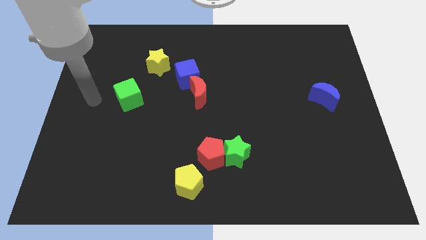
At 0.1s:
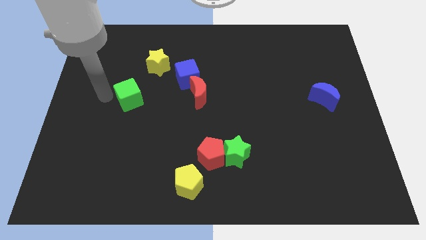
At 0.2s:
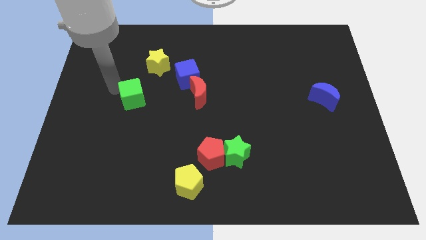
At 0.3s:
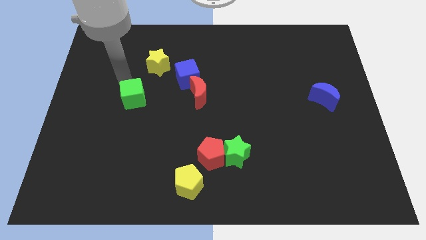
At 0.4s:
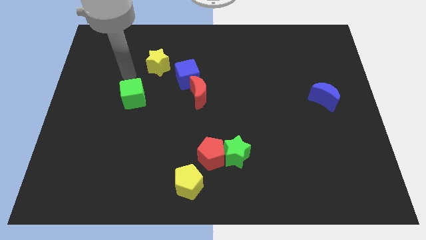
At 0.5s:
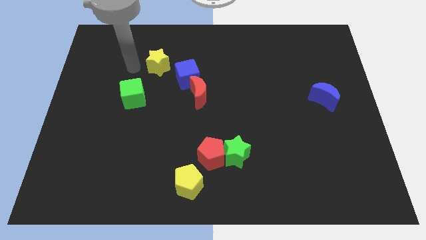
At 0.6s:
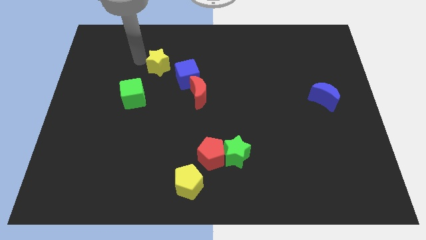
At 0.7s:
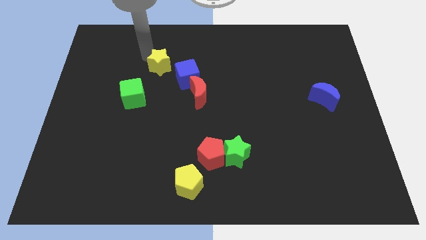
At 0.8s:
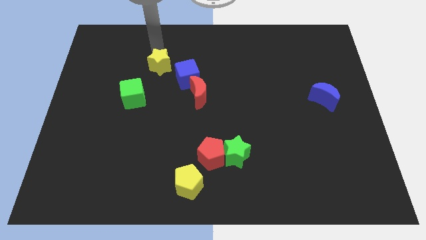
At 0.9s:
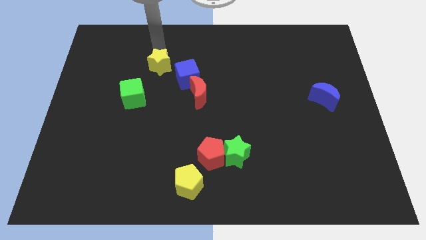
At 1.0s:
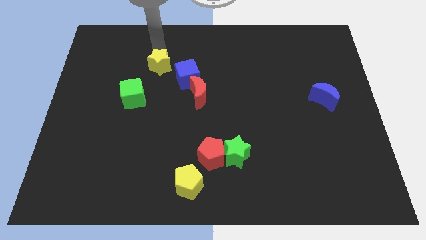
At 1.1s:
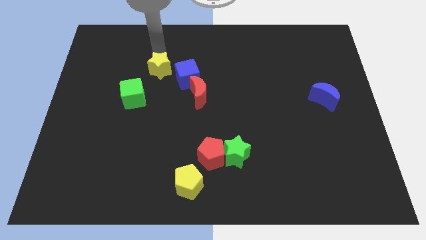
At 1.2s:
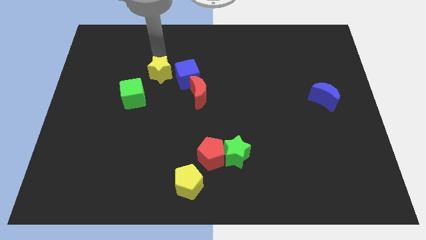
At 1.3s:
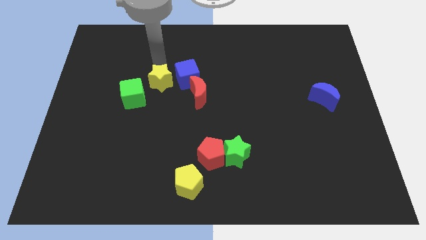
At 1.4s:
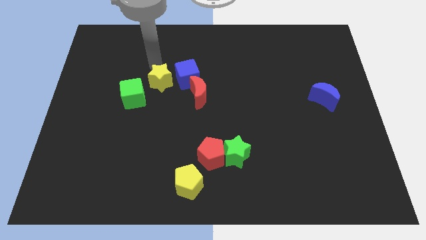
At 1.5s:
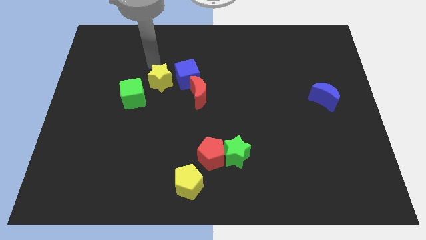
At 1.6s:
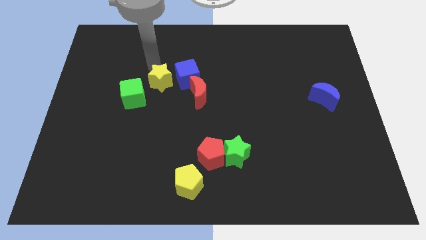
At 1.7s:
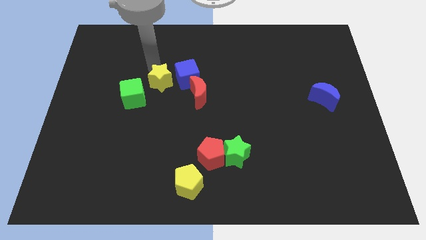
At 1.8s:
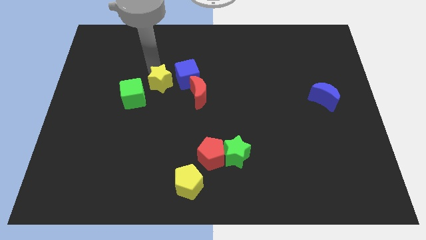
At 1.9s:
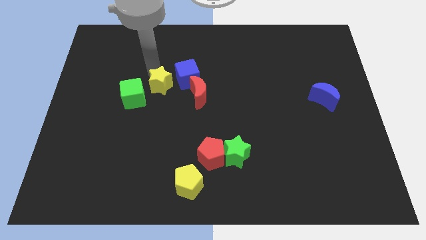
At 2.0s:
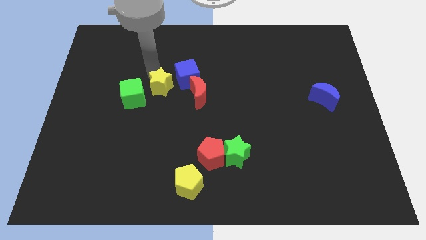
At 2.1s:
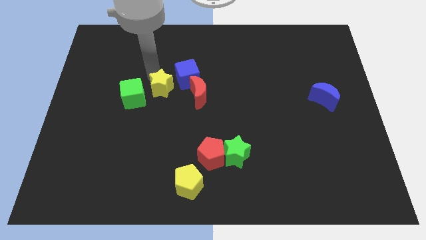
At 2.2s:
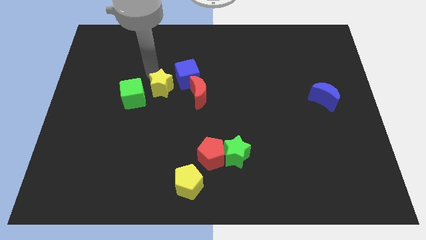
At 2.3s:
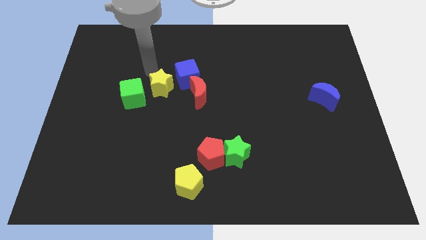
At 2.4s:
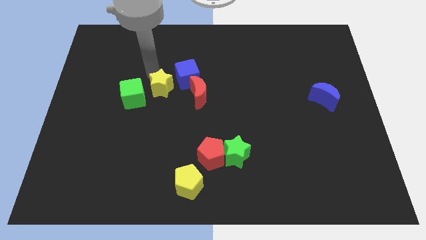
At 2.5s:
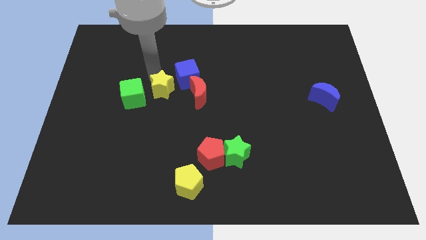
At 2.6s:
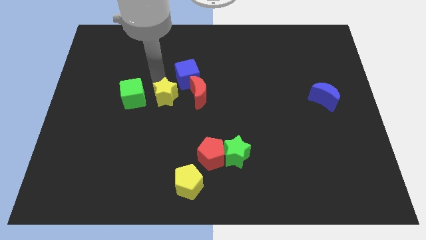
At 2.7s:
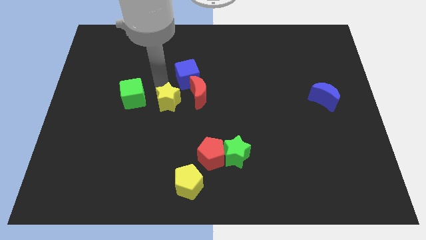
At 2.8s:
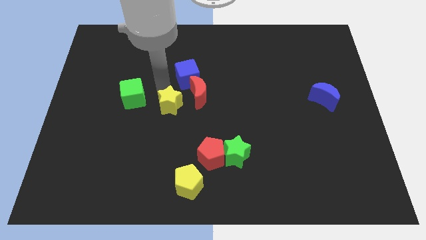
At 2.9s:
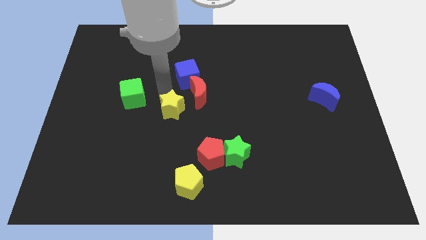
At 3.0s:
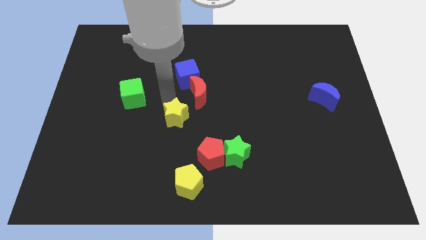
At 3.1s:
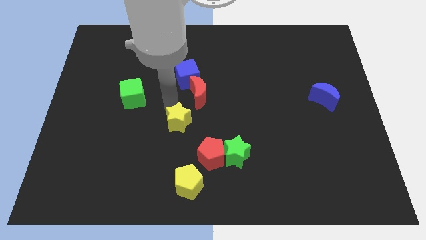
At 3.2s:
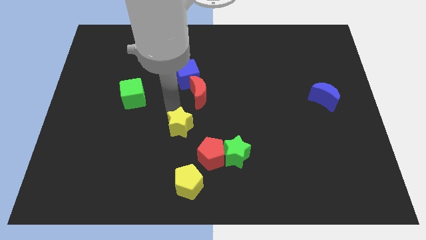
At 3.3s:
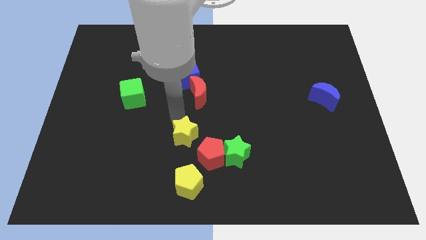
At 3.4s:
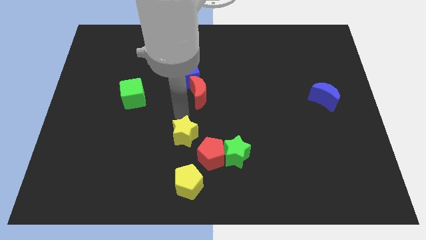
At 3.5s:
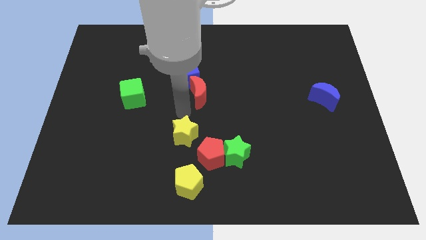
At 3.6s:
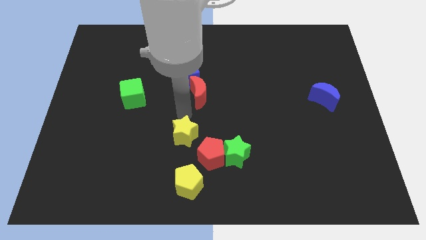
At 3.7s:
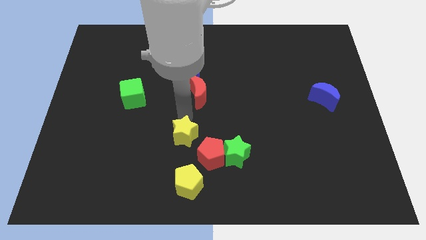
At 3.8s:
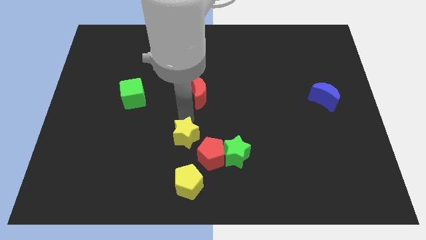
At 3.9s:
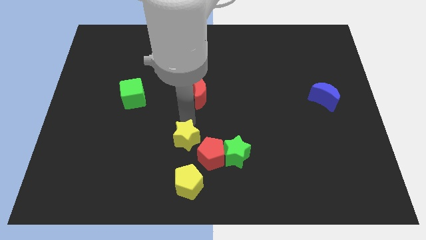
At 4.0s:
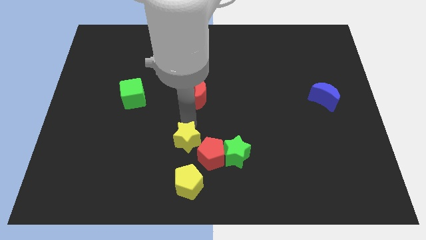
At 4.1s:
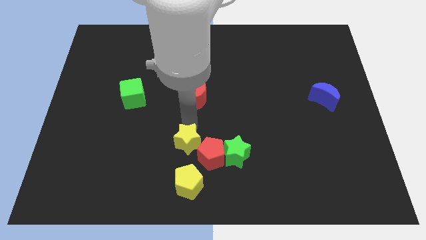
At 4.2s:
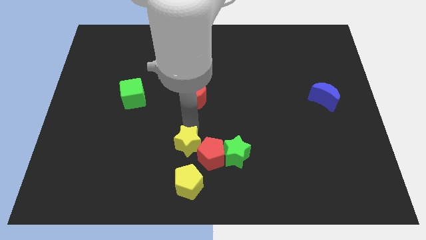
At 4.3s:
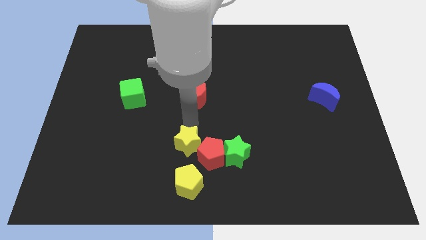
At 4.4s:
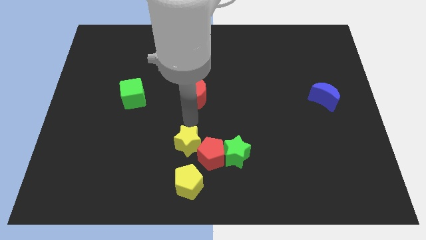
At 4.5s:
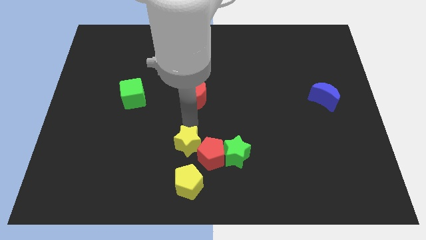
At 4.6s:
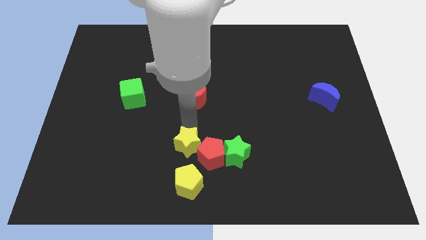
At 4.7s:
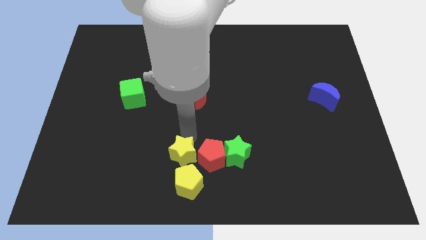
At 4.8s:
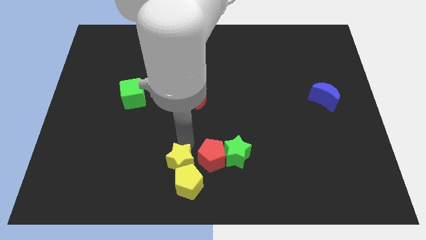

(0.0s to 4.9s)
slide the yellow star next to the yellow pentagon

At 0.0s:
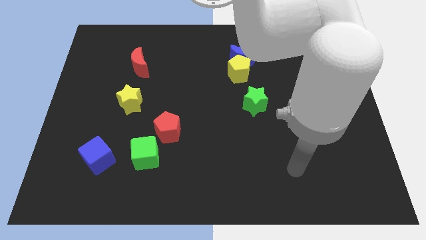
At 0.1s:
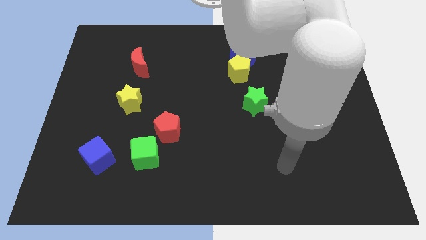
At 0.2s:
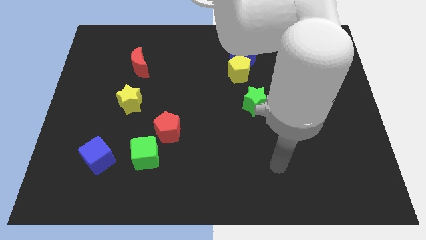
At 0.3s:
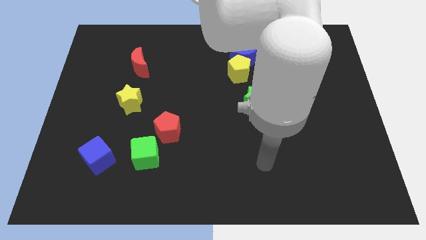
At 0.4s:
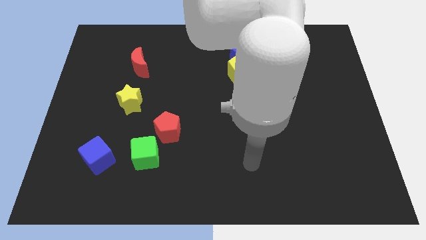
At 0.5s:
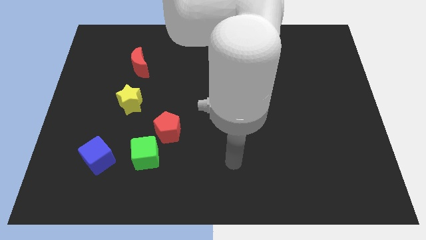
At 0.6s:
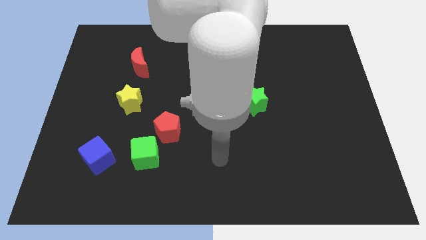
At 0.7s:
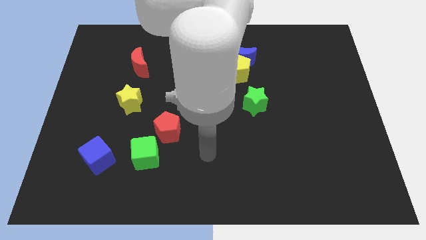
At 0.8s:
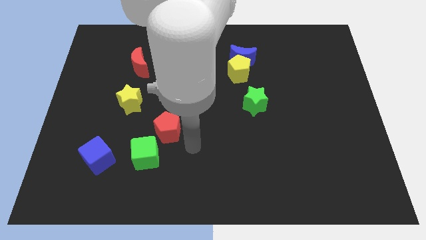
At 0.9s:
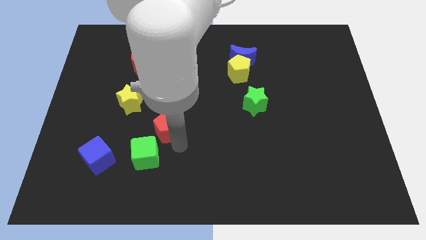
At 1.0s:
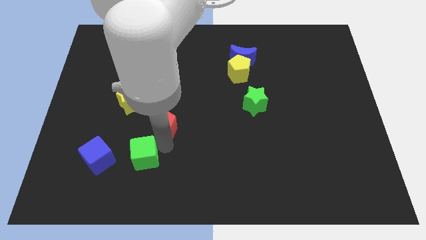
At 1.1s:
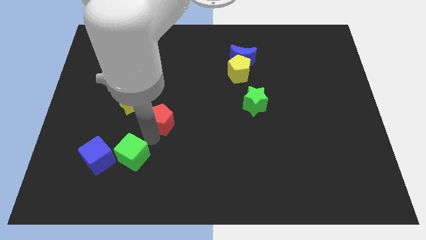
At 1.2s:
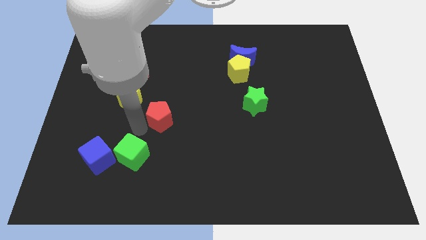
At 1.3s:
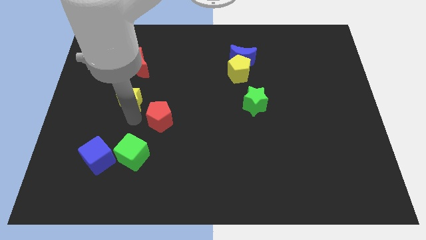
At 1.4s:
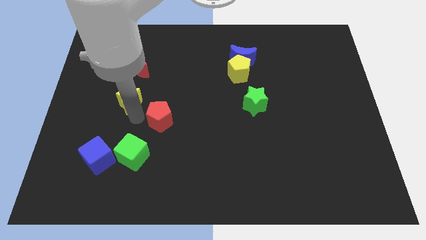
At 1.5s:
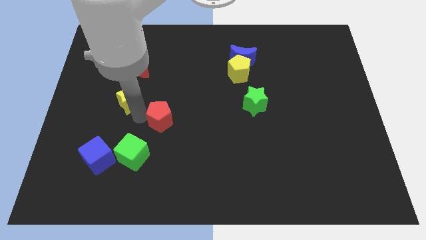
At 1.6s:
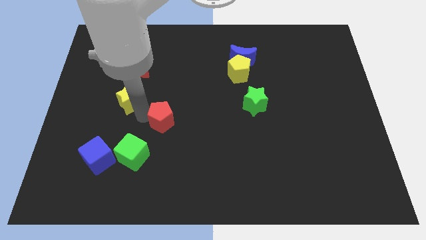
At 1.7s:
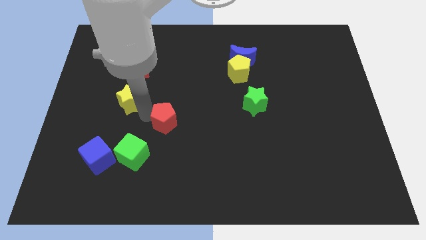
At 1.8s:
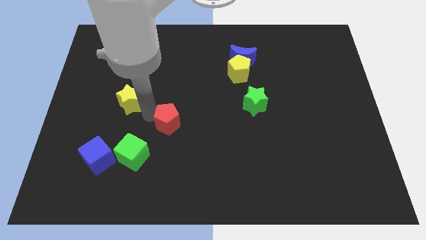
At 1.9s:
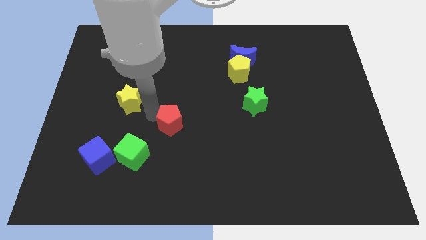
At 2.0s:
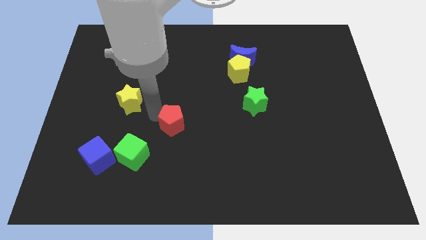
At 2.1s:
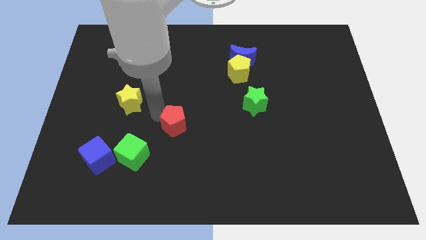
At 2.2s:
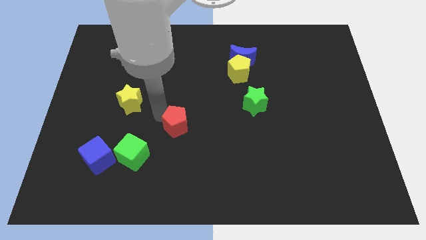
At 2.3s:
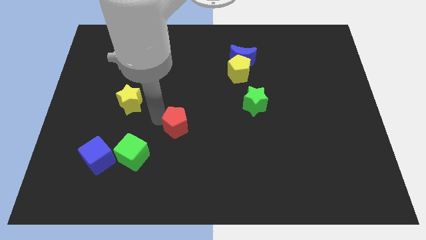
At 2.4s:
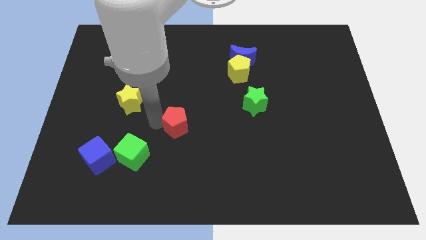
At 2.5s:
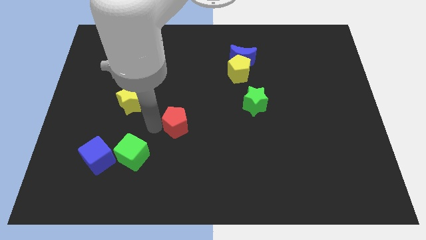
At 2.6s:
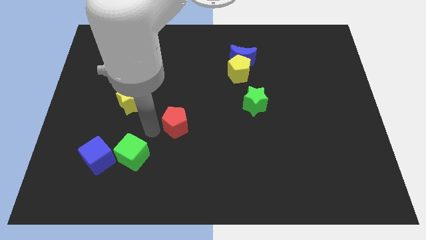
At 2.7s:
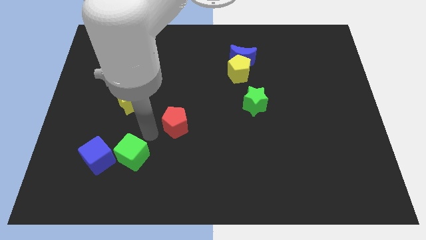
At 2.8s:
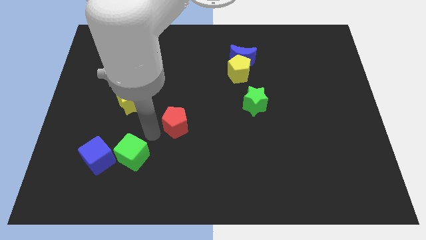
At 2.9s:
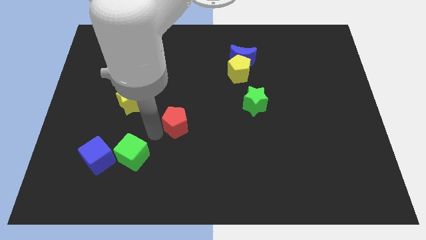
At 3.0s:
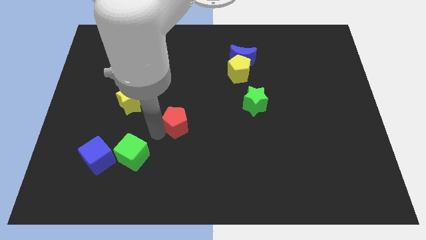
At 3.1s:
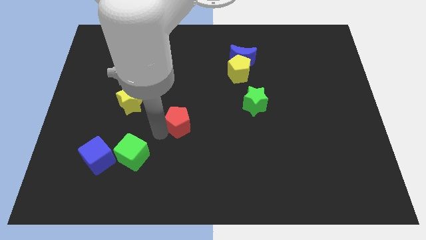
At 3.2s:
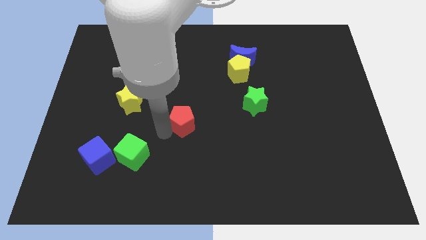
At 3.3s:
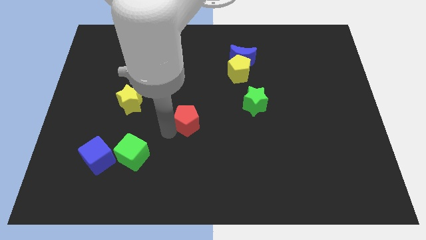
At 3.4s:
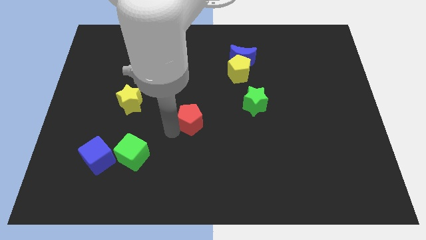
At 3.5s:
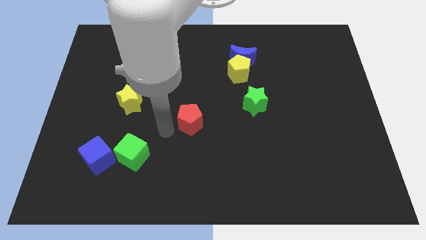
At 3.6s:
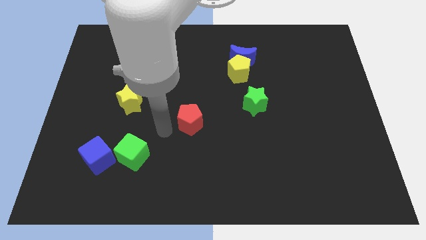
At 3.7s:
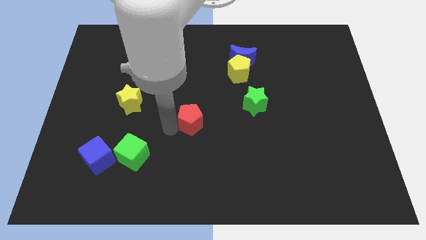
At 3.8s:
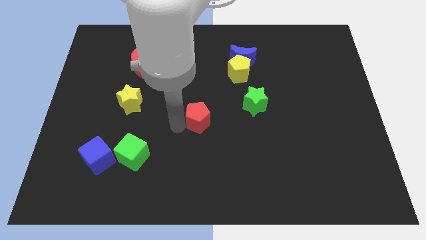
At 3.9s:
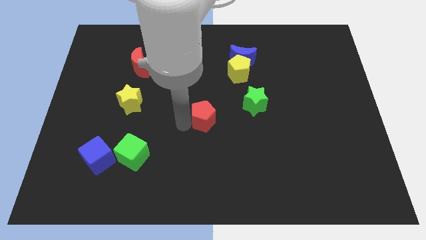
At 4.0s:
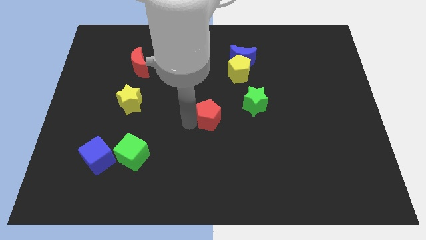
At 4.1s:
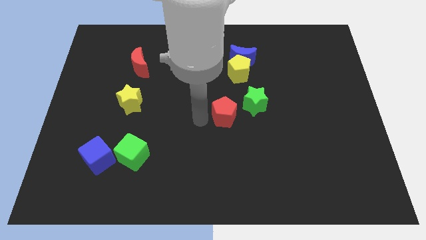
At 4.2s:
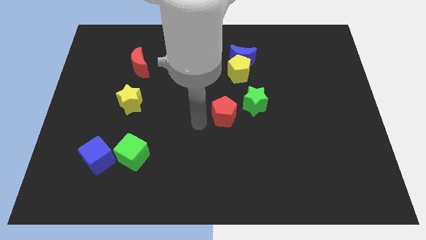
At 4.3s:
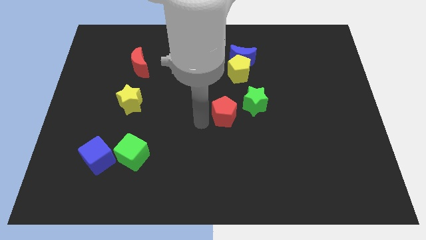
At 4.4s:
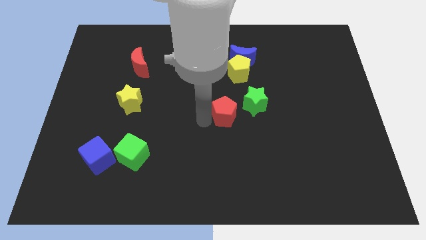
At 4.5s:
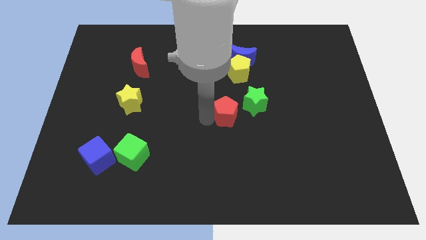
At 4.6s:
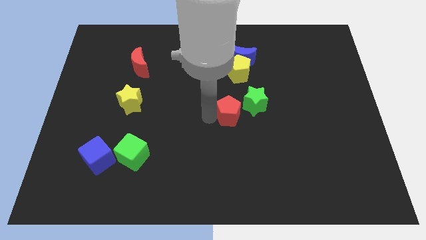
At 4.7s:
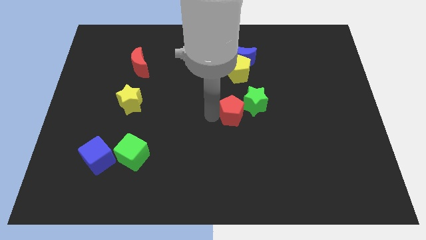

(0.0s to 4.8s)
put the red pentagon next to the green star
